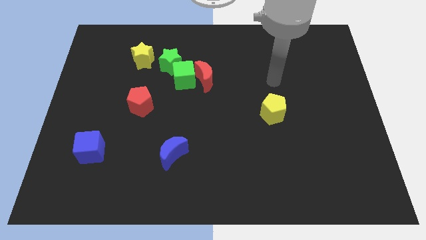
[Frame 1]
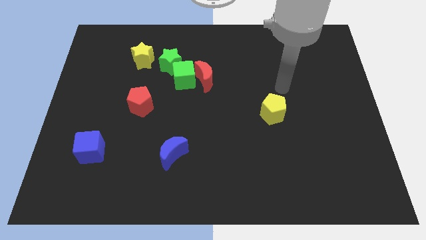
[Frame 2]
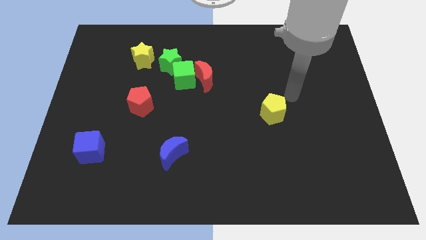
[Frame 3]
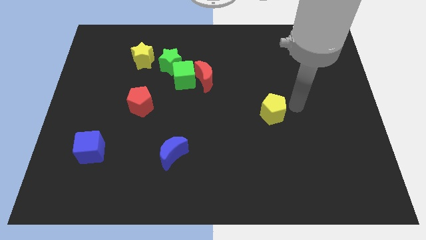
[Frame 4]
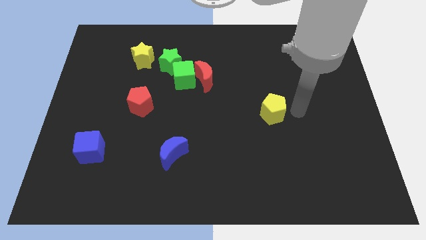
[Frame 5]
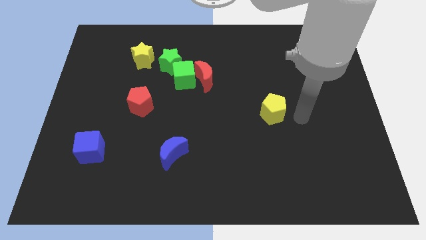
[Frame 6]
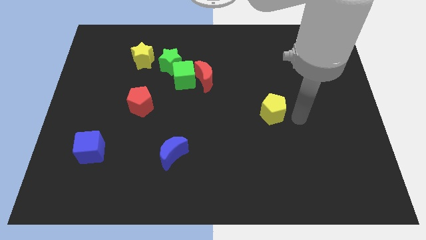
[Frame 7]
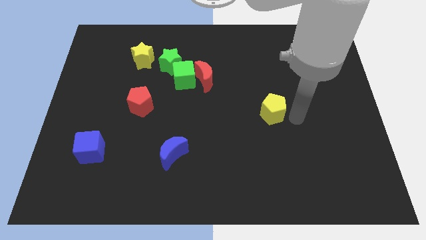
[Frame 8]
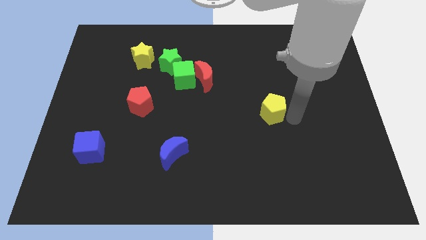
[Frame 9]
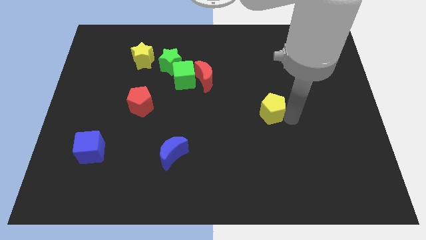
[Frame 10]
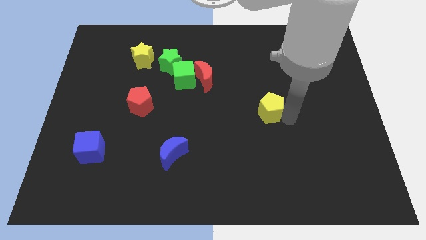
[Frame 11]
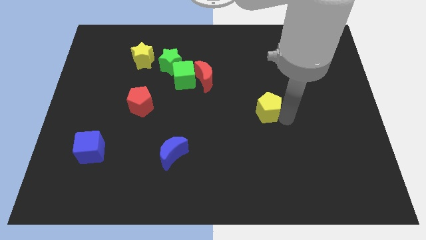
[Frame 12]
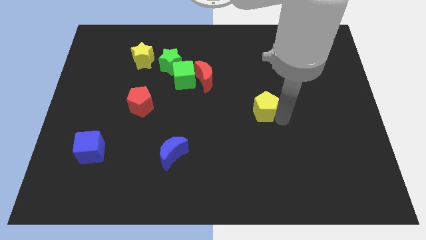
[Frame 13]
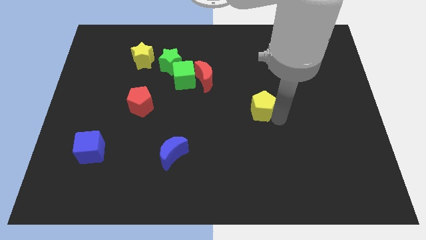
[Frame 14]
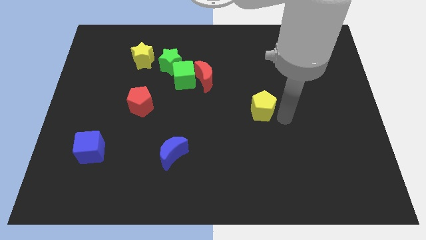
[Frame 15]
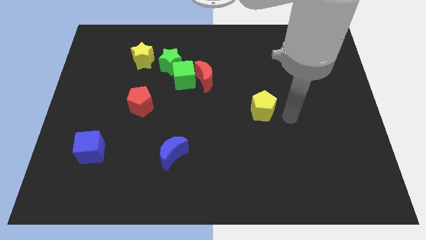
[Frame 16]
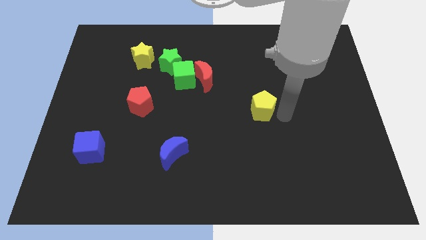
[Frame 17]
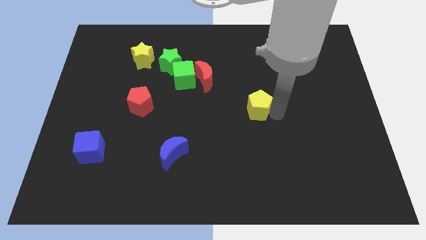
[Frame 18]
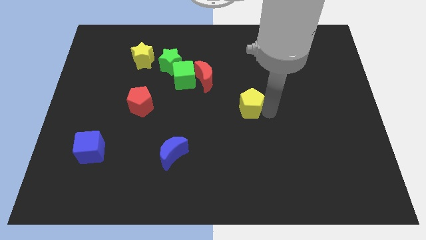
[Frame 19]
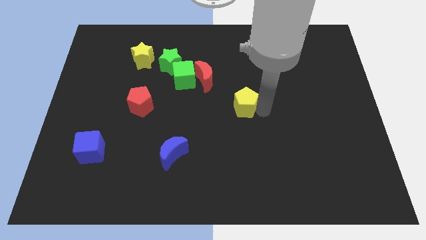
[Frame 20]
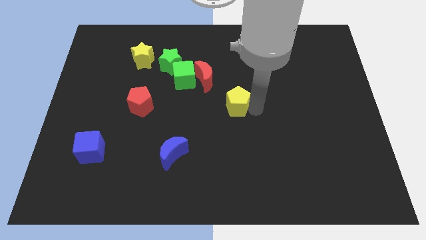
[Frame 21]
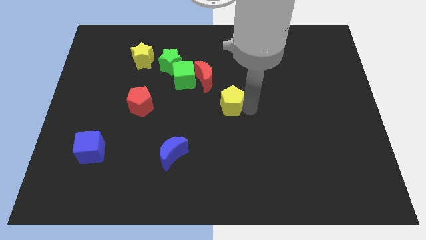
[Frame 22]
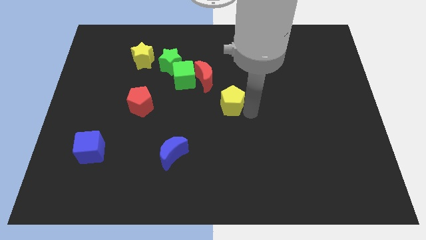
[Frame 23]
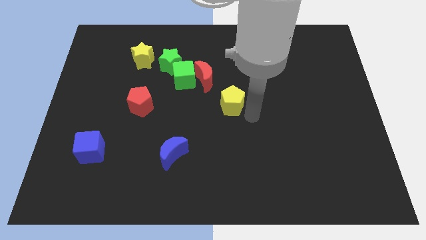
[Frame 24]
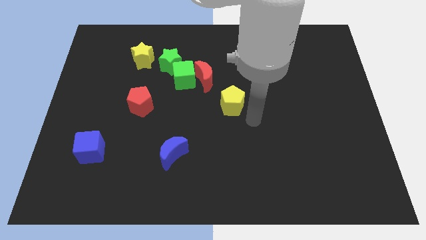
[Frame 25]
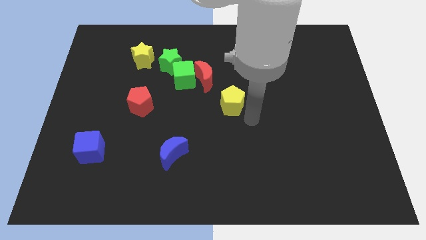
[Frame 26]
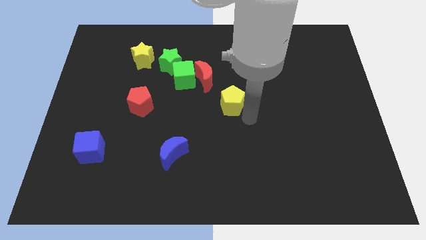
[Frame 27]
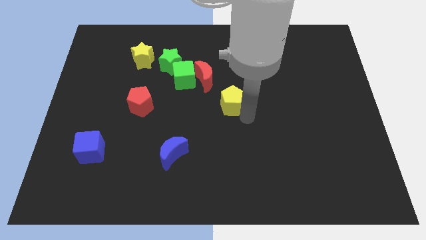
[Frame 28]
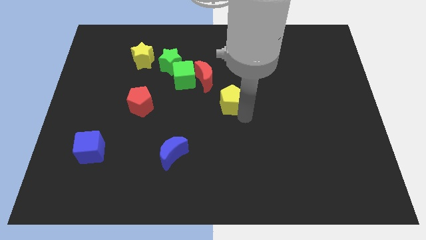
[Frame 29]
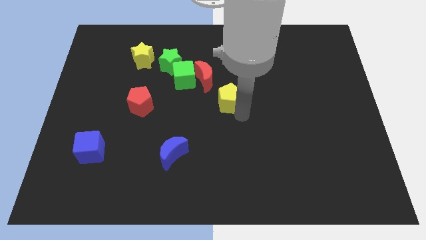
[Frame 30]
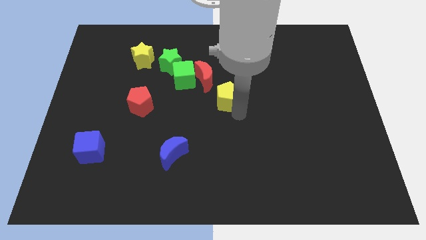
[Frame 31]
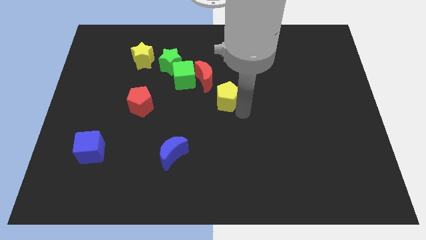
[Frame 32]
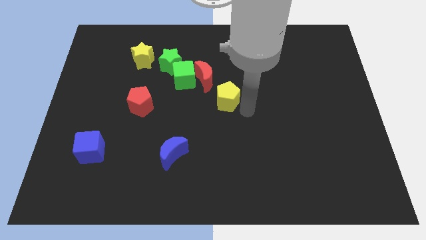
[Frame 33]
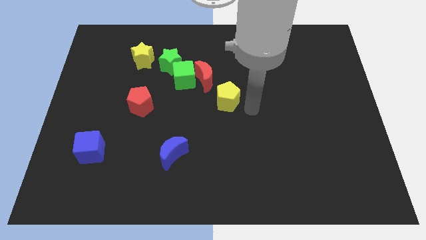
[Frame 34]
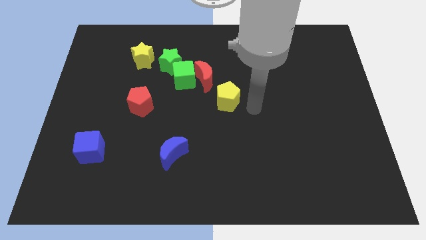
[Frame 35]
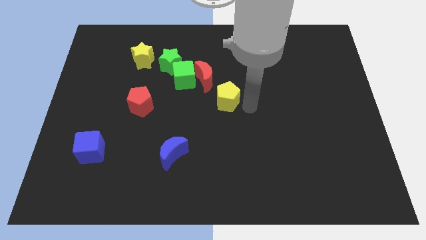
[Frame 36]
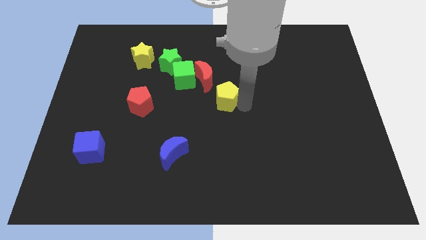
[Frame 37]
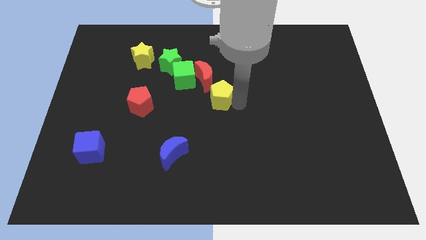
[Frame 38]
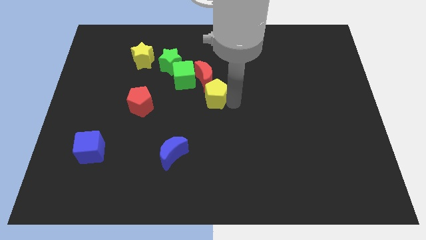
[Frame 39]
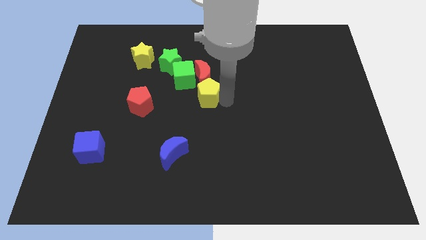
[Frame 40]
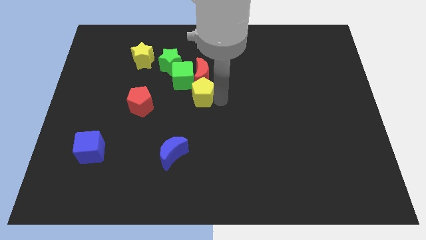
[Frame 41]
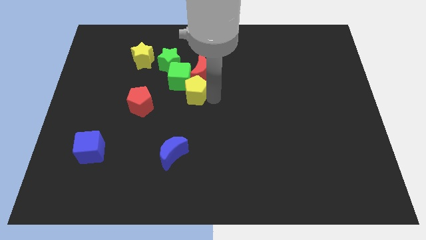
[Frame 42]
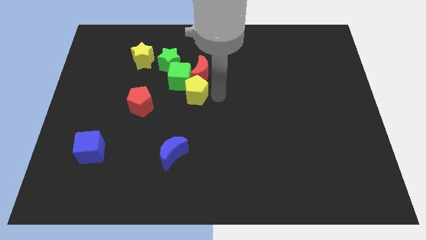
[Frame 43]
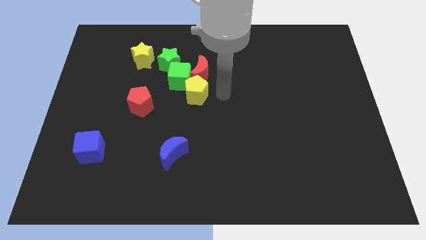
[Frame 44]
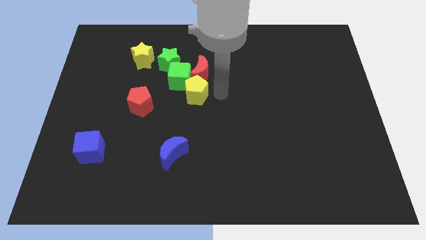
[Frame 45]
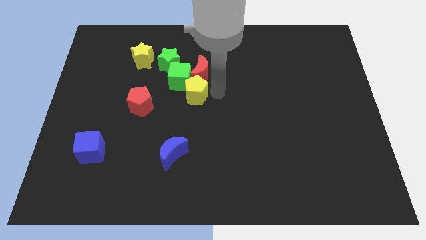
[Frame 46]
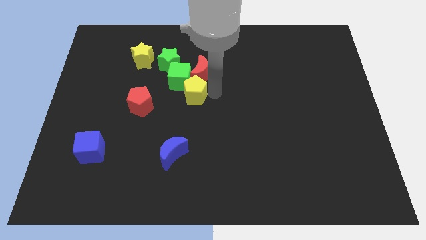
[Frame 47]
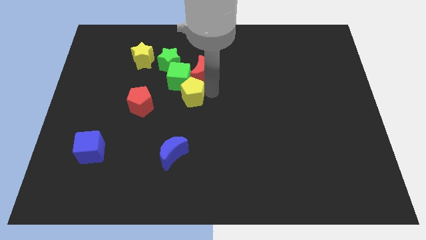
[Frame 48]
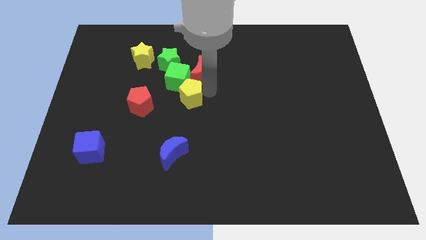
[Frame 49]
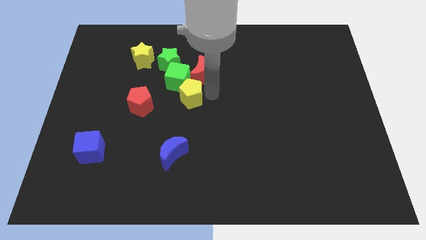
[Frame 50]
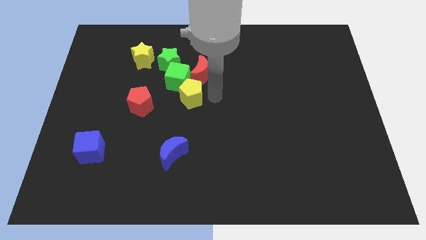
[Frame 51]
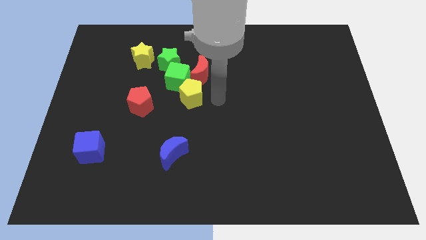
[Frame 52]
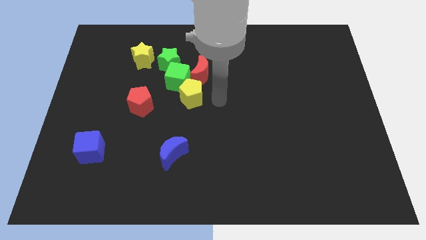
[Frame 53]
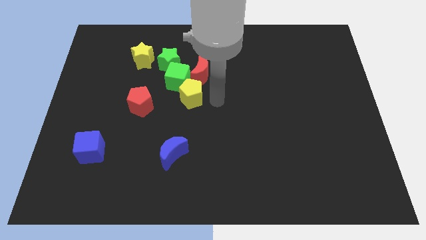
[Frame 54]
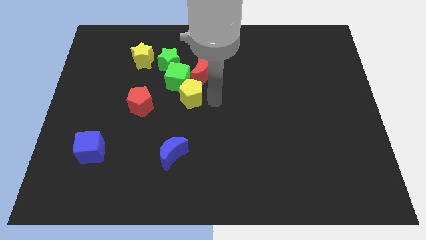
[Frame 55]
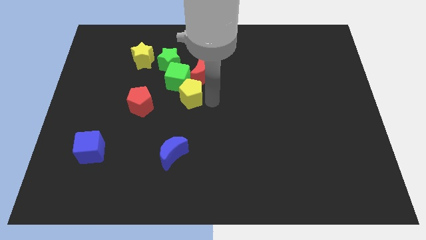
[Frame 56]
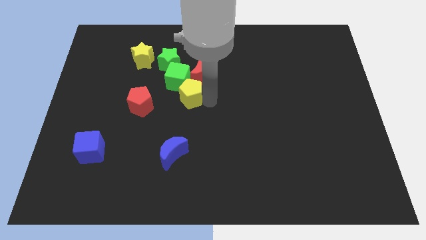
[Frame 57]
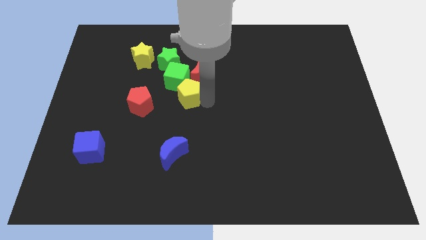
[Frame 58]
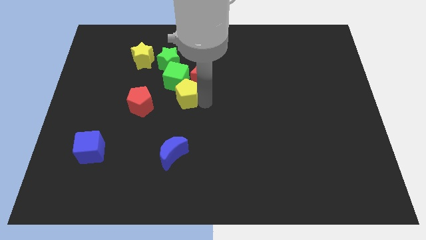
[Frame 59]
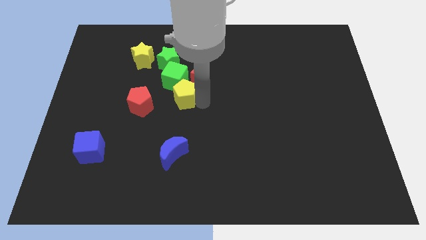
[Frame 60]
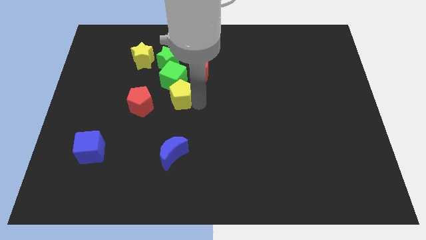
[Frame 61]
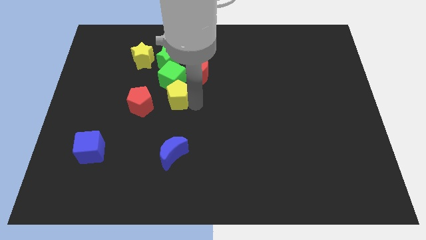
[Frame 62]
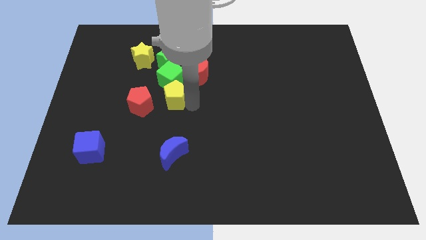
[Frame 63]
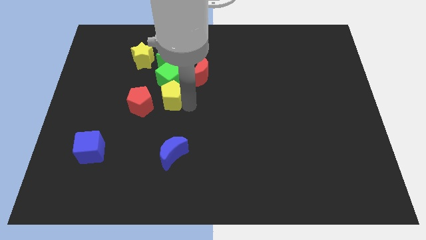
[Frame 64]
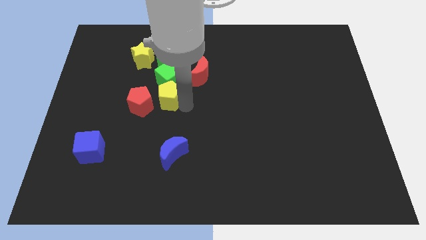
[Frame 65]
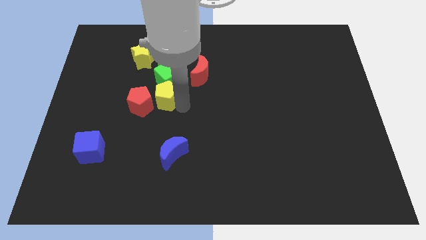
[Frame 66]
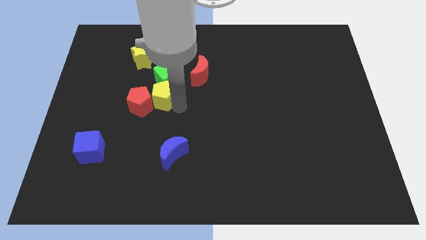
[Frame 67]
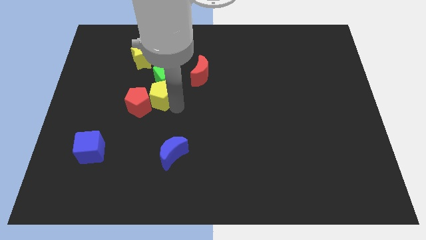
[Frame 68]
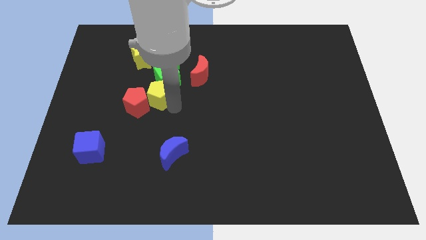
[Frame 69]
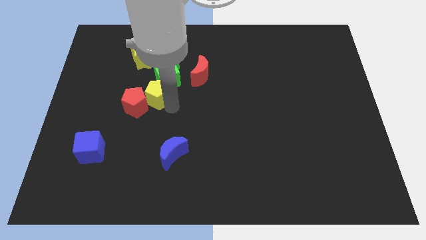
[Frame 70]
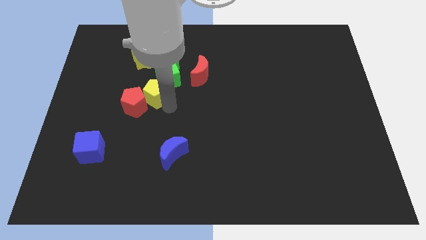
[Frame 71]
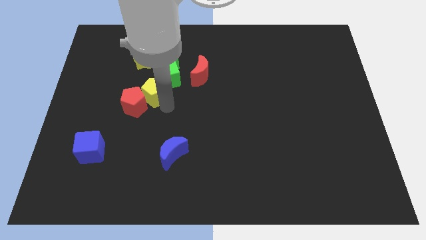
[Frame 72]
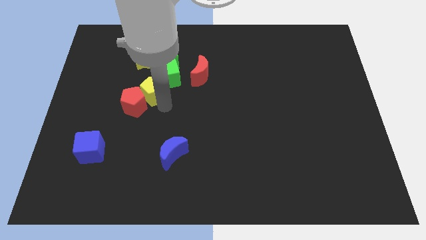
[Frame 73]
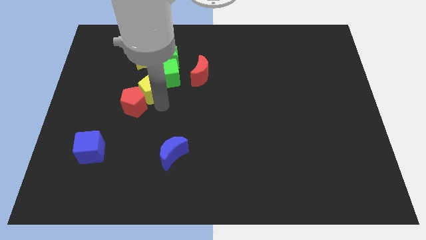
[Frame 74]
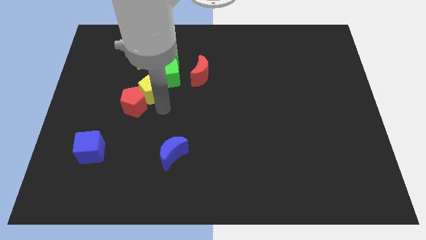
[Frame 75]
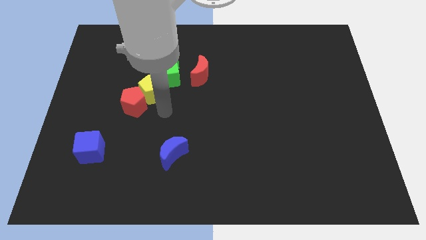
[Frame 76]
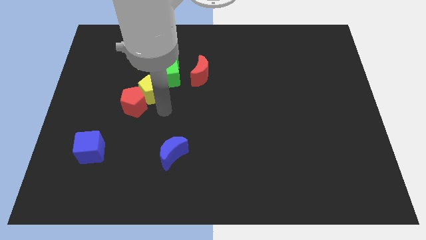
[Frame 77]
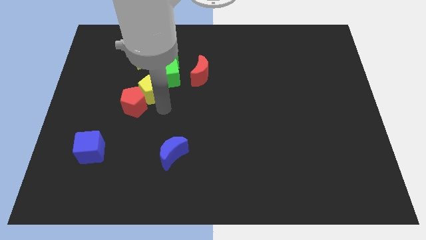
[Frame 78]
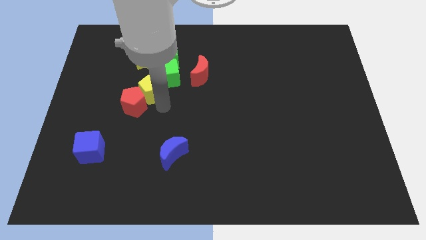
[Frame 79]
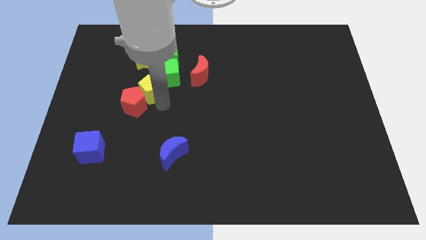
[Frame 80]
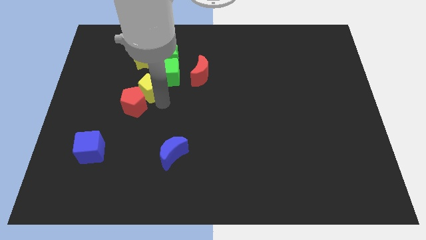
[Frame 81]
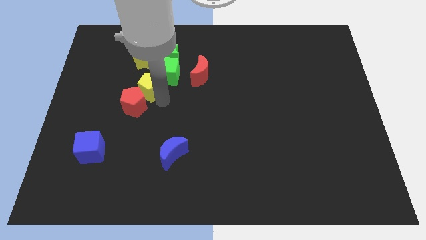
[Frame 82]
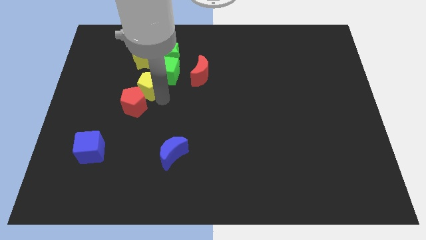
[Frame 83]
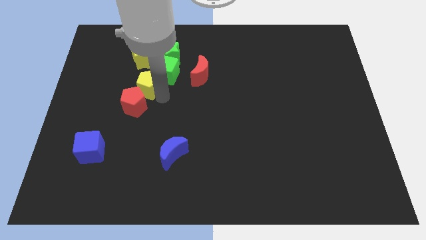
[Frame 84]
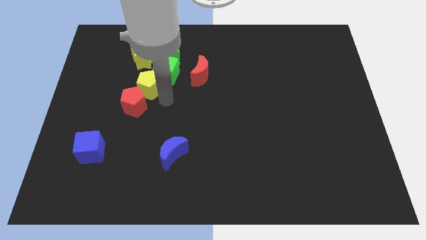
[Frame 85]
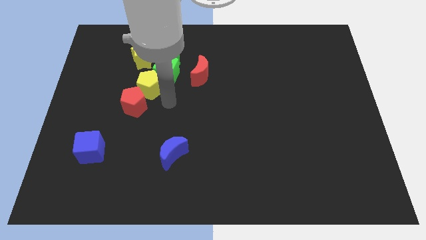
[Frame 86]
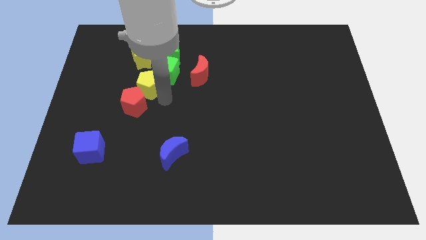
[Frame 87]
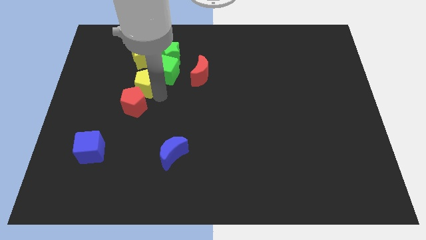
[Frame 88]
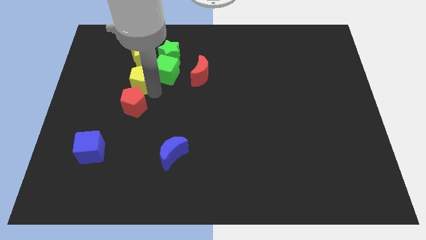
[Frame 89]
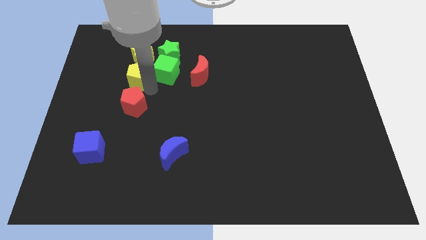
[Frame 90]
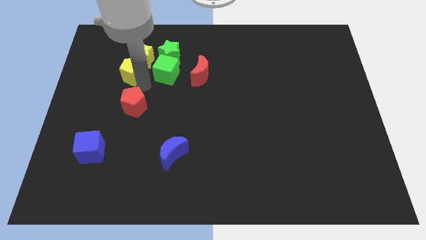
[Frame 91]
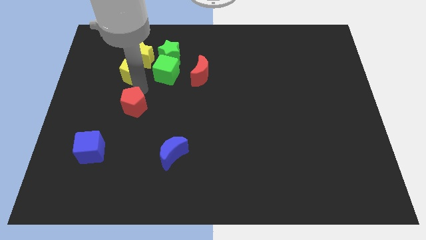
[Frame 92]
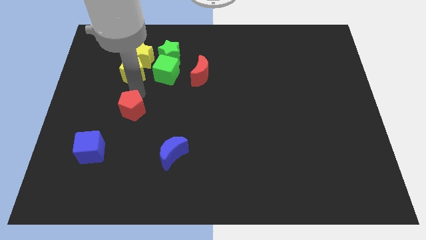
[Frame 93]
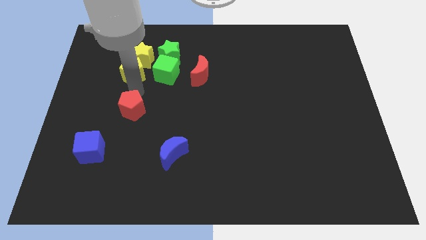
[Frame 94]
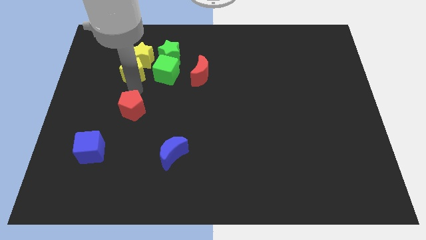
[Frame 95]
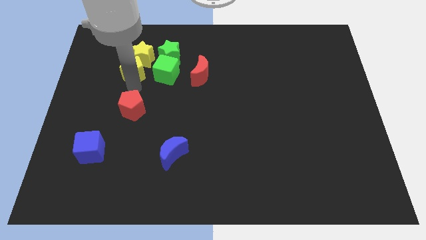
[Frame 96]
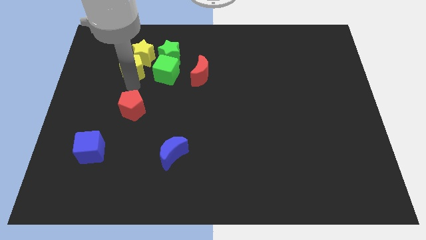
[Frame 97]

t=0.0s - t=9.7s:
put the yellow pentagon left of the green star
